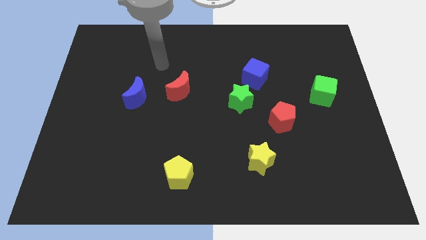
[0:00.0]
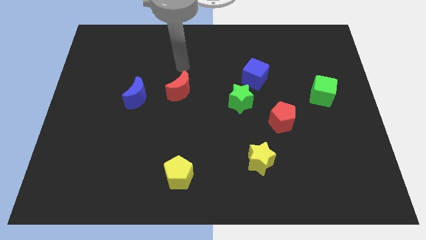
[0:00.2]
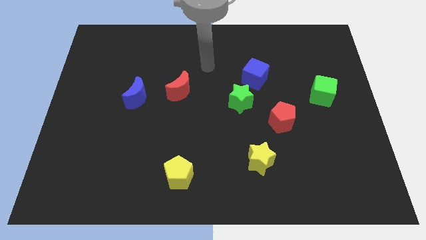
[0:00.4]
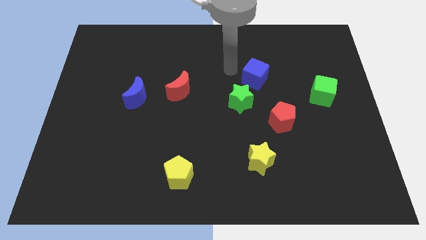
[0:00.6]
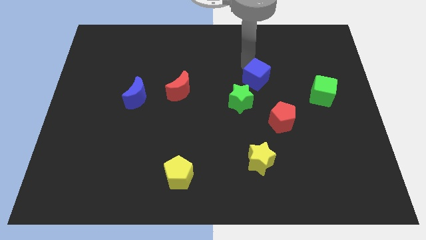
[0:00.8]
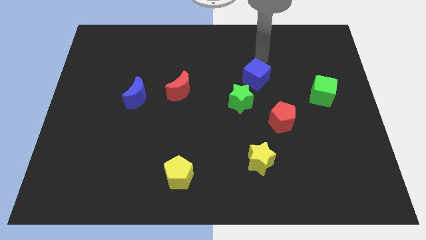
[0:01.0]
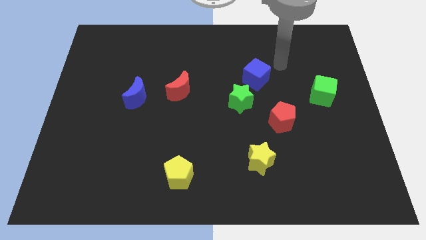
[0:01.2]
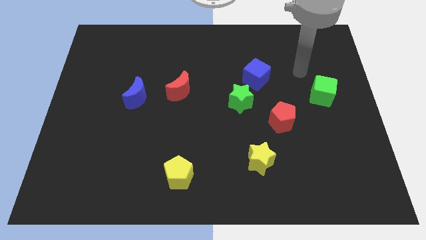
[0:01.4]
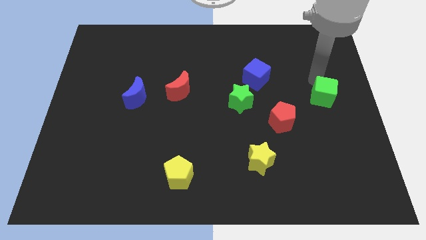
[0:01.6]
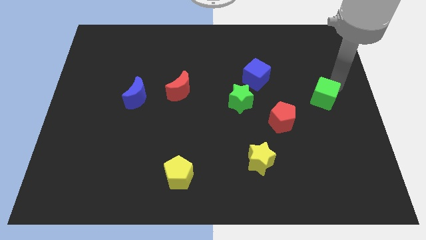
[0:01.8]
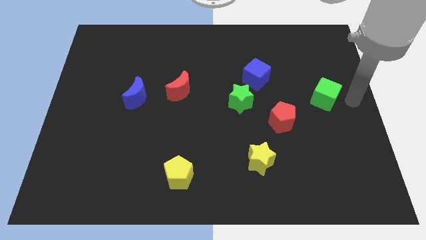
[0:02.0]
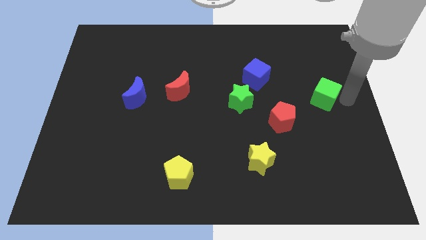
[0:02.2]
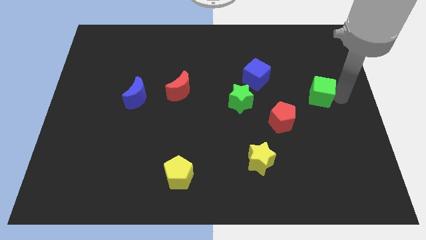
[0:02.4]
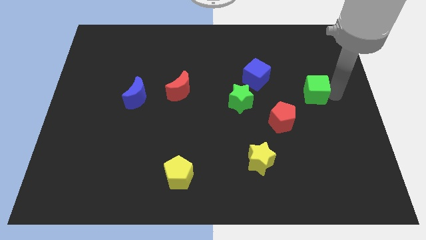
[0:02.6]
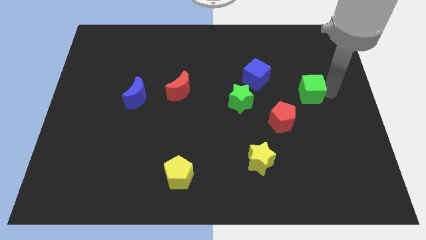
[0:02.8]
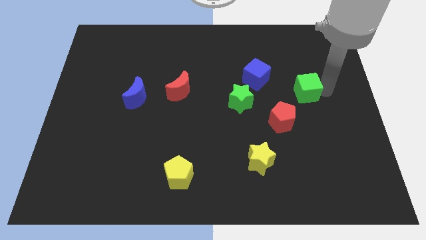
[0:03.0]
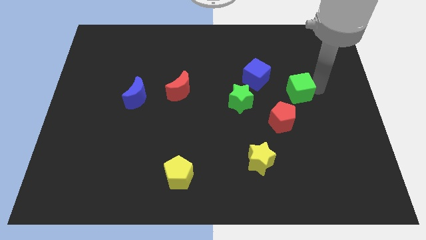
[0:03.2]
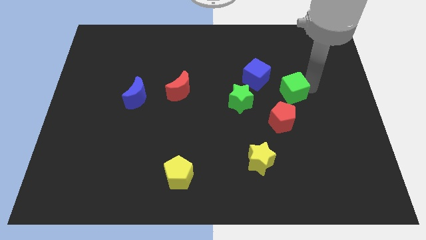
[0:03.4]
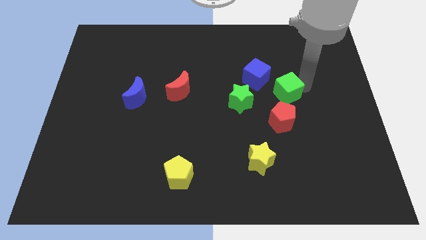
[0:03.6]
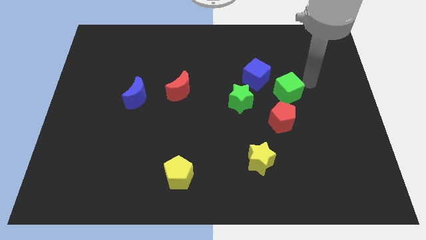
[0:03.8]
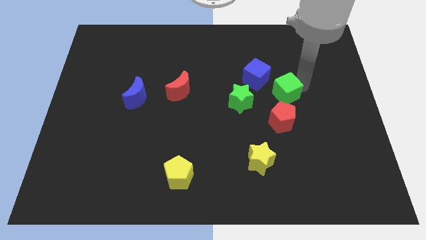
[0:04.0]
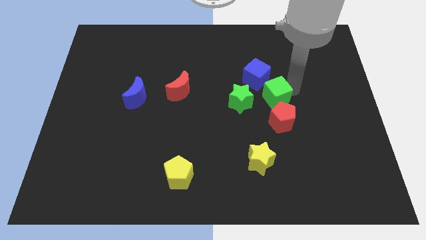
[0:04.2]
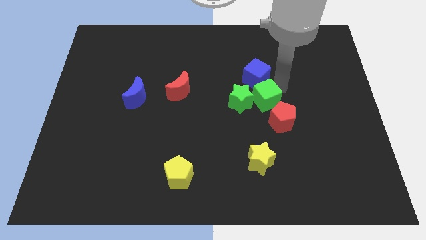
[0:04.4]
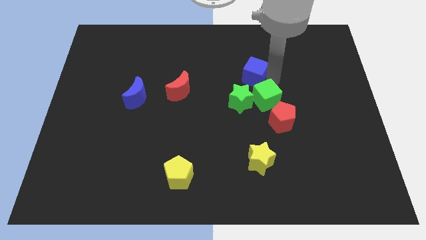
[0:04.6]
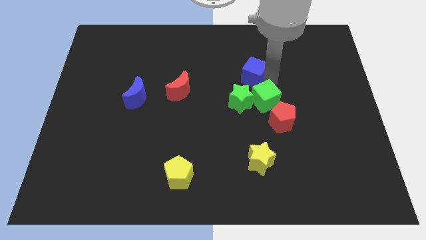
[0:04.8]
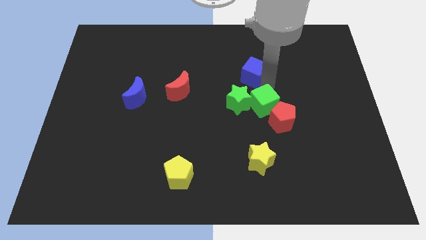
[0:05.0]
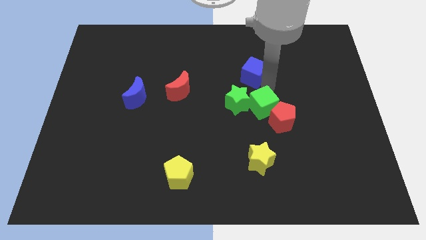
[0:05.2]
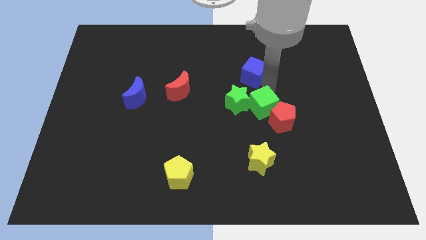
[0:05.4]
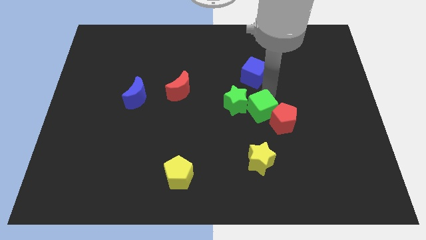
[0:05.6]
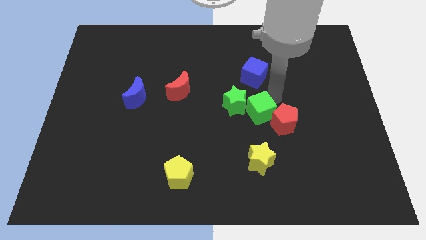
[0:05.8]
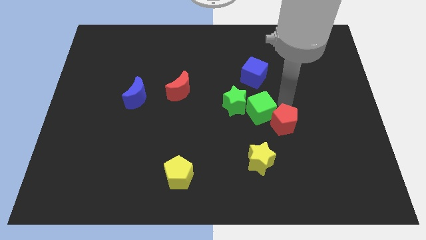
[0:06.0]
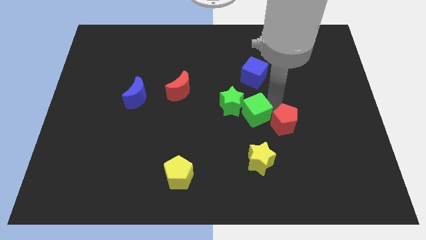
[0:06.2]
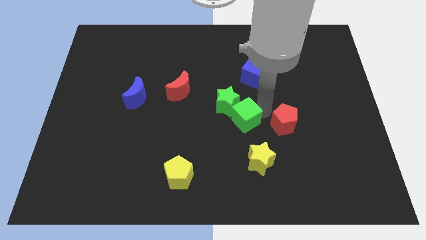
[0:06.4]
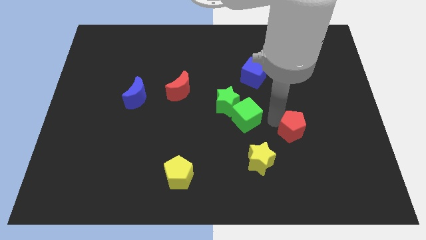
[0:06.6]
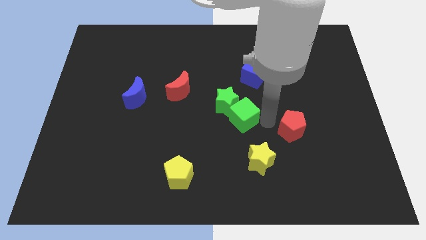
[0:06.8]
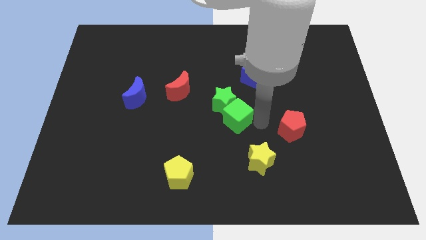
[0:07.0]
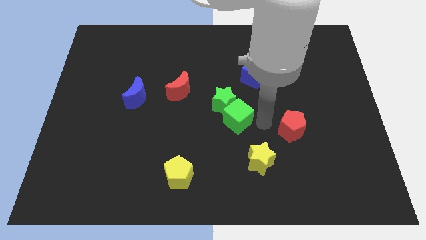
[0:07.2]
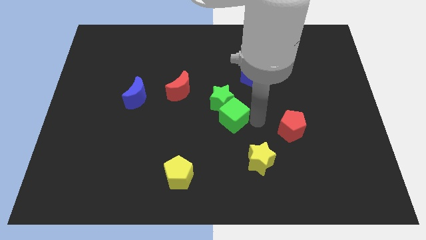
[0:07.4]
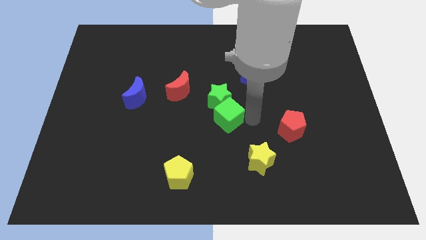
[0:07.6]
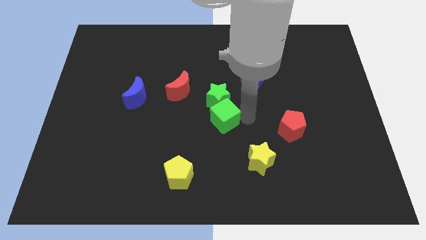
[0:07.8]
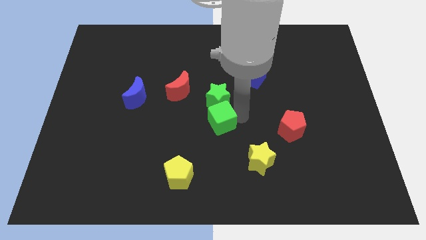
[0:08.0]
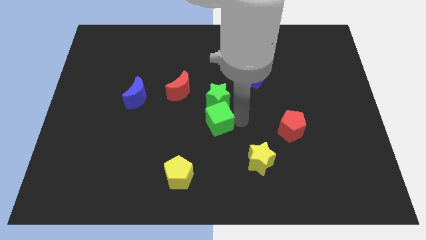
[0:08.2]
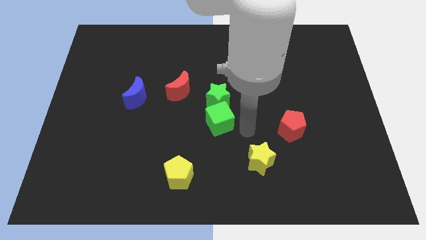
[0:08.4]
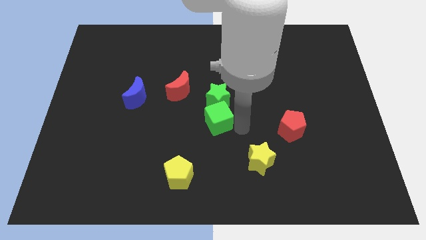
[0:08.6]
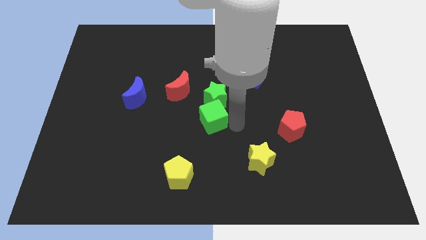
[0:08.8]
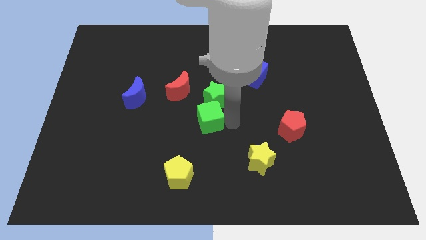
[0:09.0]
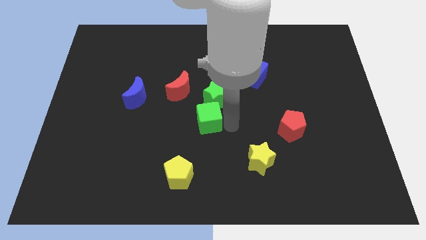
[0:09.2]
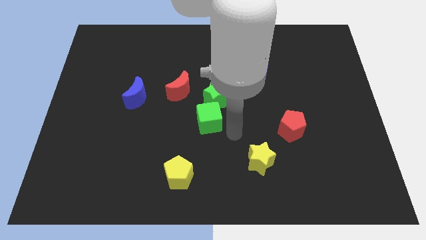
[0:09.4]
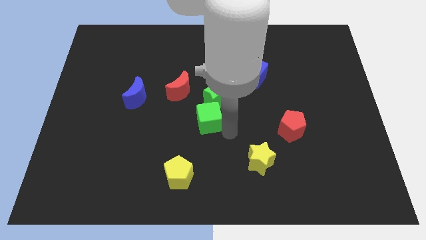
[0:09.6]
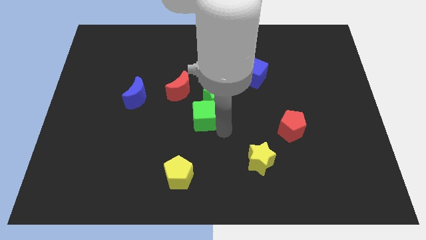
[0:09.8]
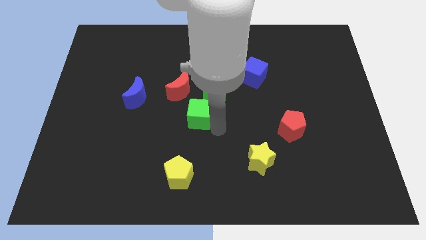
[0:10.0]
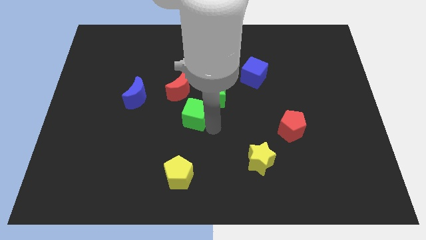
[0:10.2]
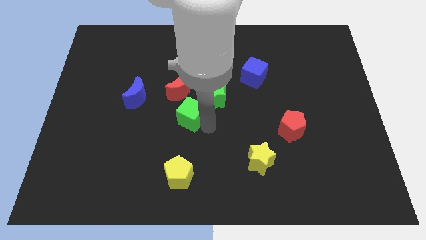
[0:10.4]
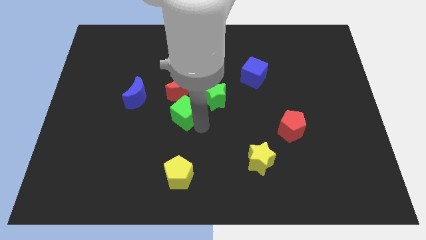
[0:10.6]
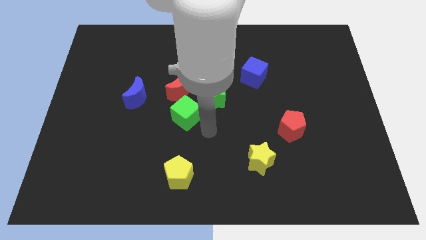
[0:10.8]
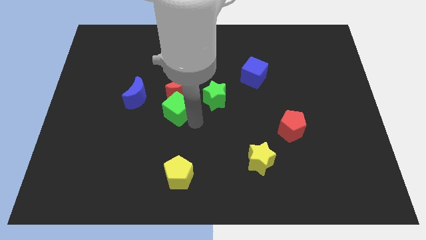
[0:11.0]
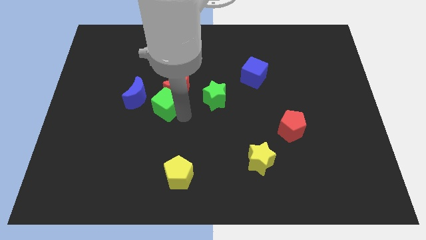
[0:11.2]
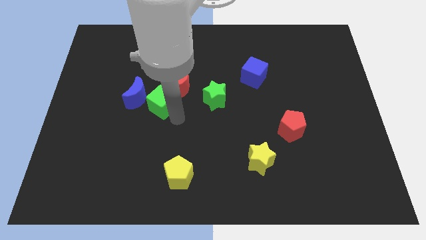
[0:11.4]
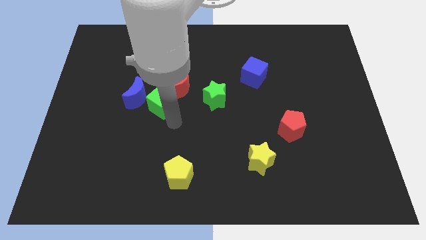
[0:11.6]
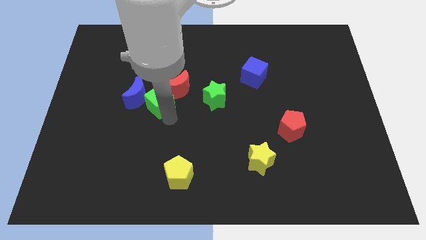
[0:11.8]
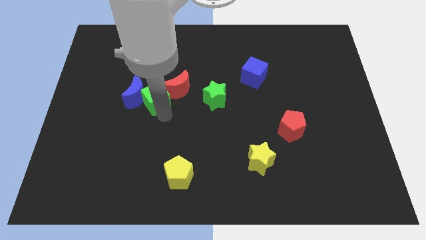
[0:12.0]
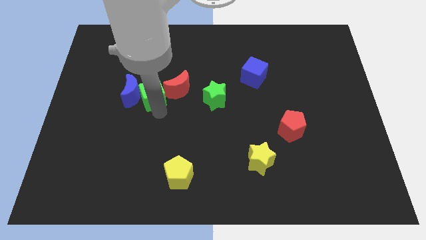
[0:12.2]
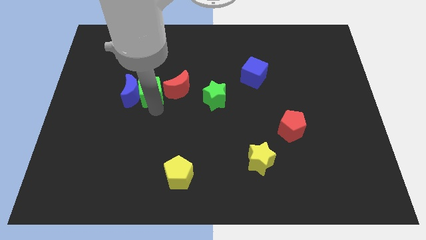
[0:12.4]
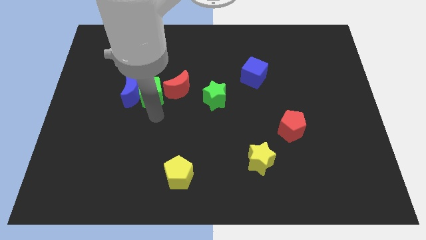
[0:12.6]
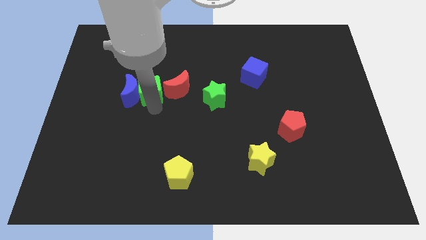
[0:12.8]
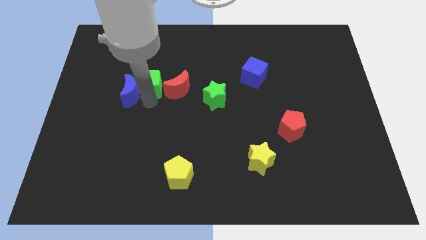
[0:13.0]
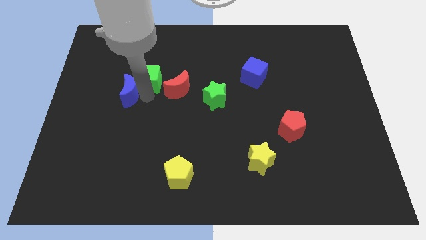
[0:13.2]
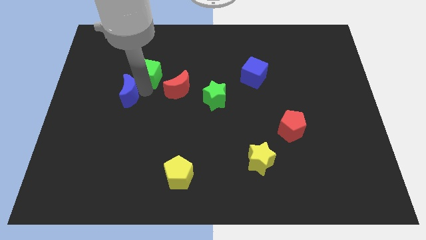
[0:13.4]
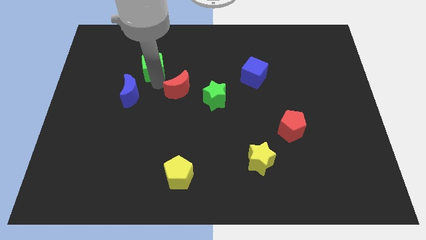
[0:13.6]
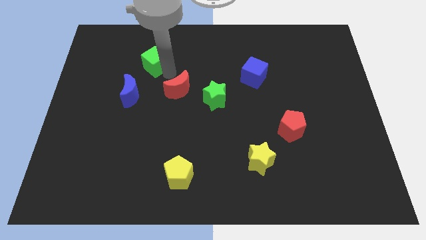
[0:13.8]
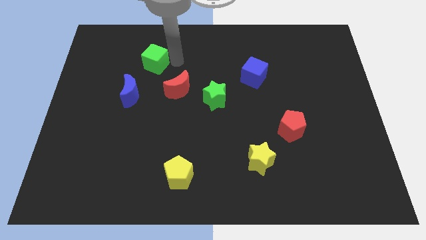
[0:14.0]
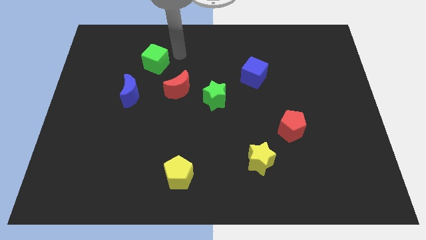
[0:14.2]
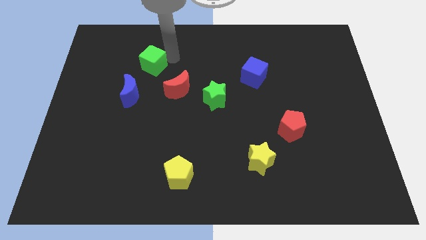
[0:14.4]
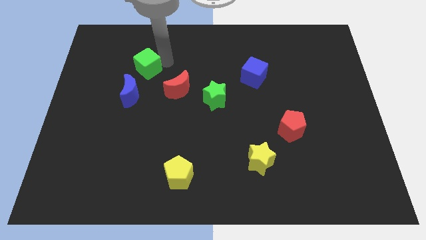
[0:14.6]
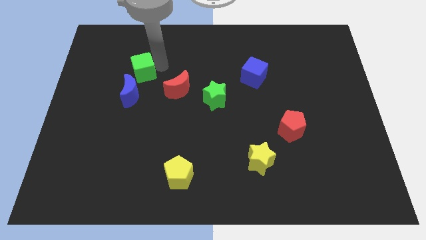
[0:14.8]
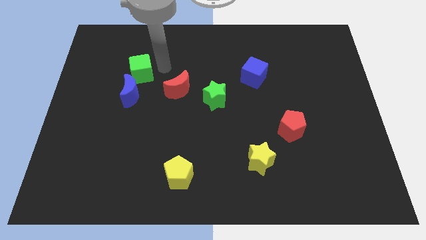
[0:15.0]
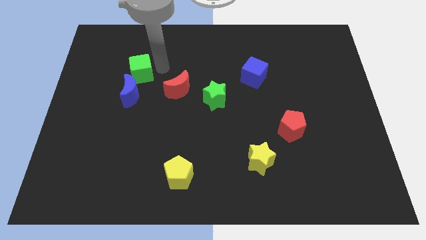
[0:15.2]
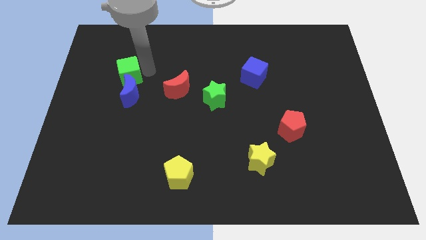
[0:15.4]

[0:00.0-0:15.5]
push the green cube to the top left of the blue moon
